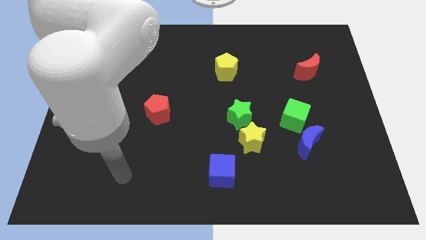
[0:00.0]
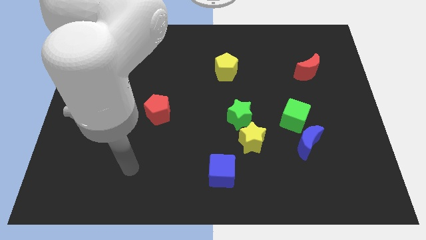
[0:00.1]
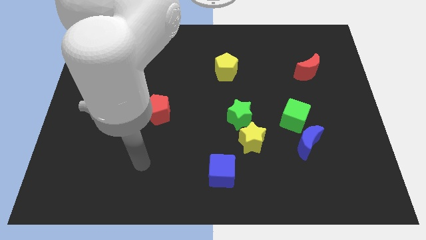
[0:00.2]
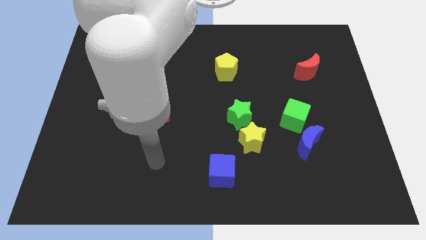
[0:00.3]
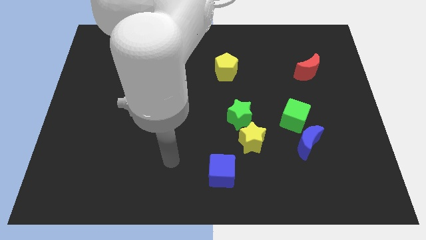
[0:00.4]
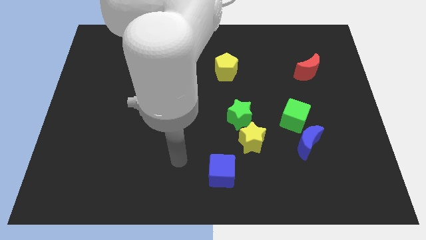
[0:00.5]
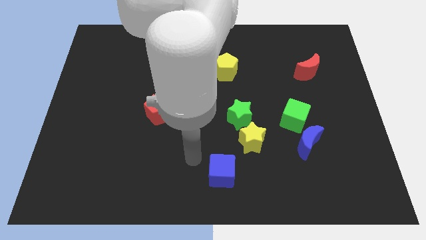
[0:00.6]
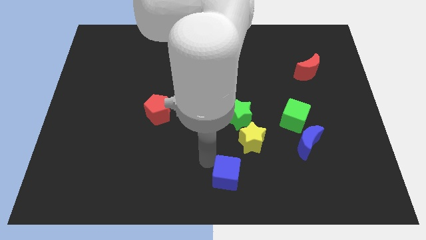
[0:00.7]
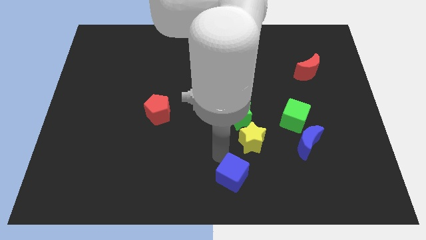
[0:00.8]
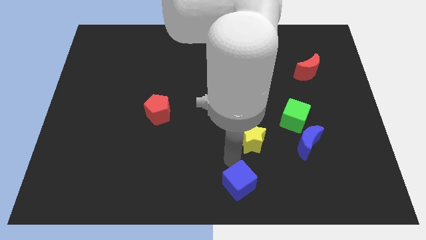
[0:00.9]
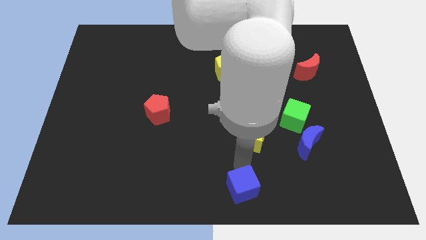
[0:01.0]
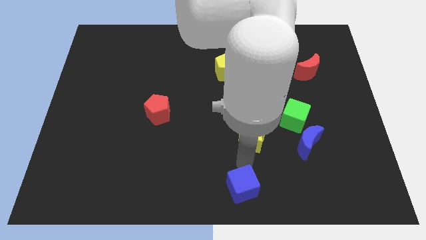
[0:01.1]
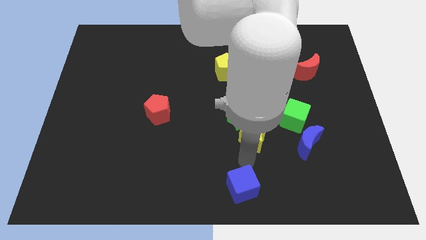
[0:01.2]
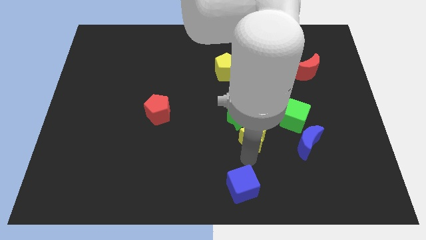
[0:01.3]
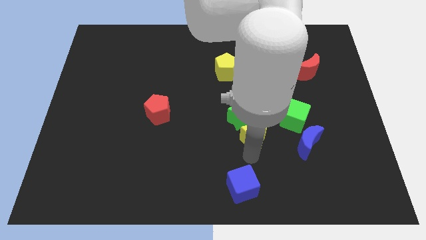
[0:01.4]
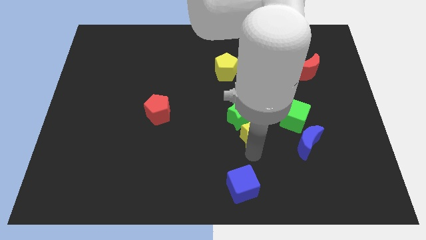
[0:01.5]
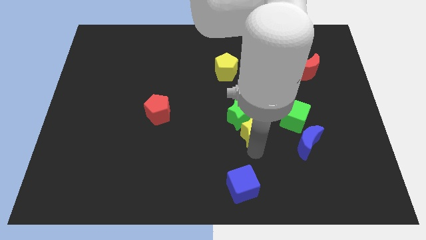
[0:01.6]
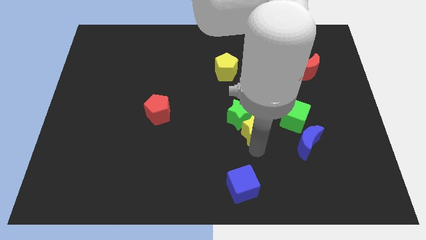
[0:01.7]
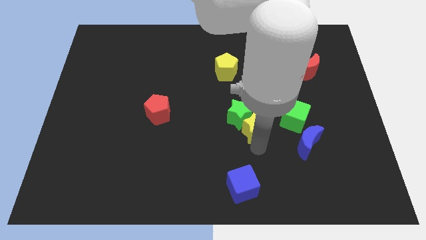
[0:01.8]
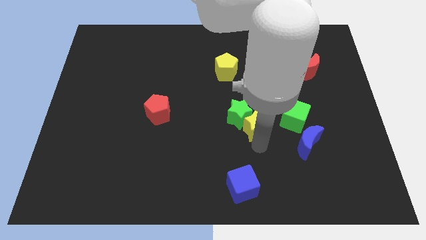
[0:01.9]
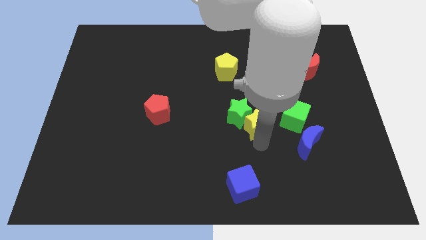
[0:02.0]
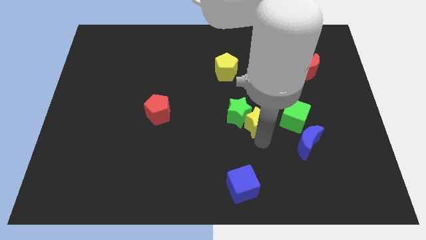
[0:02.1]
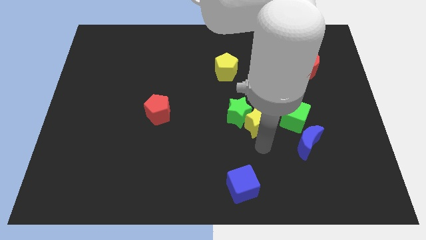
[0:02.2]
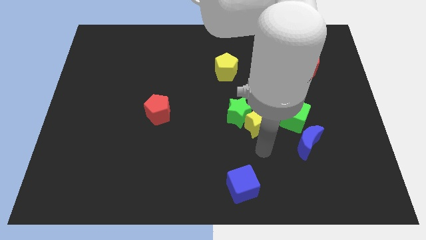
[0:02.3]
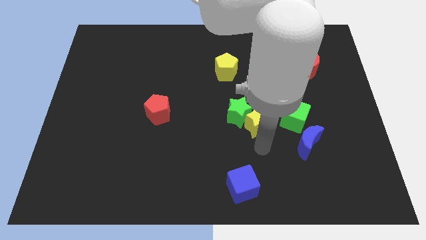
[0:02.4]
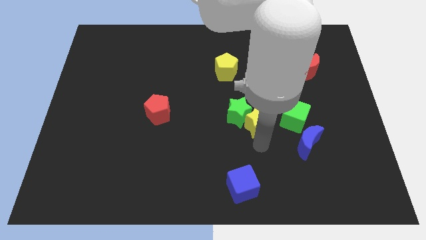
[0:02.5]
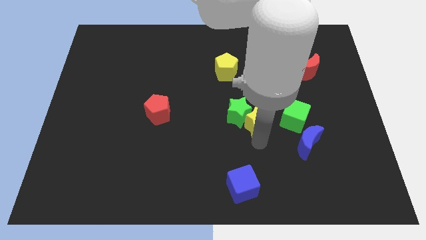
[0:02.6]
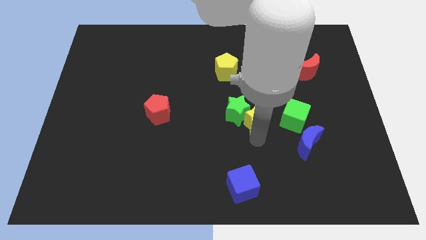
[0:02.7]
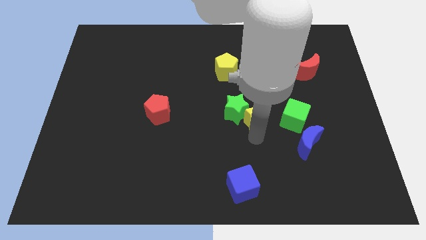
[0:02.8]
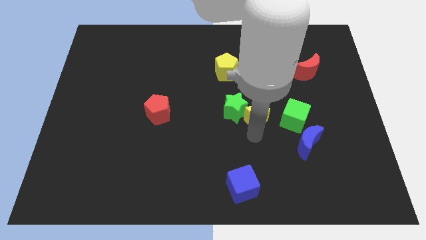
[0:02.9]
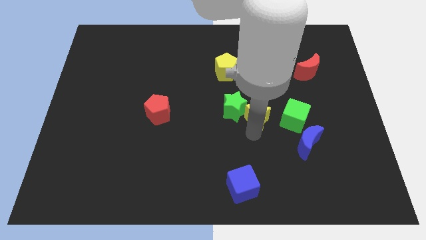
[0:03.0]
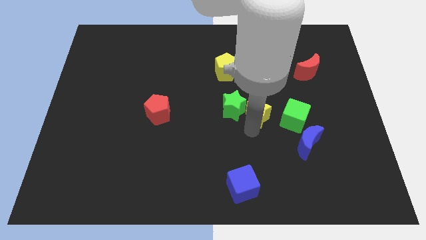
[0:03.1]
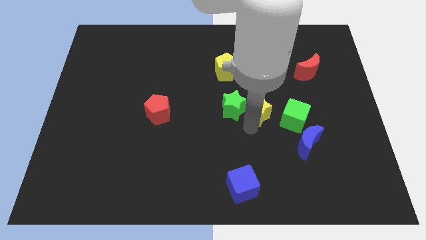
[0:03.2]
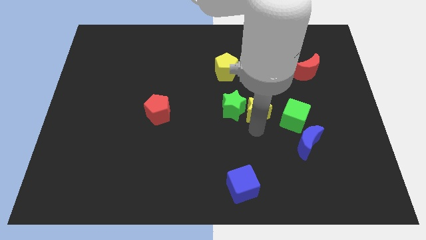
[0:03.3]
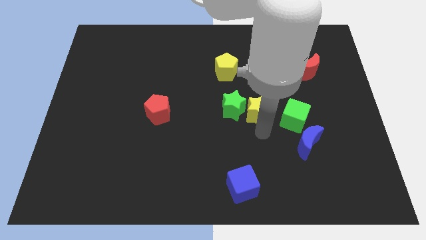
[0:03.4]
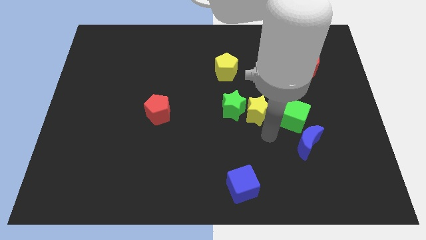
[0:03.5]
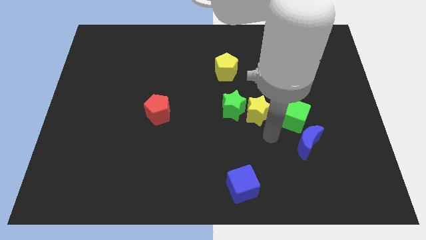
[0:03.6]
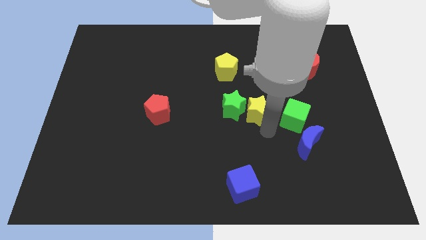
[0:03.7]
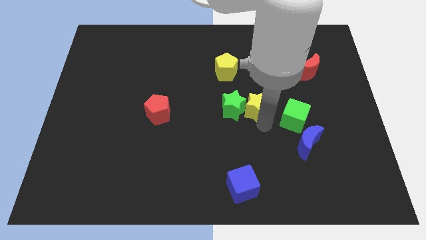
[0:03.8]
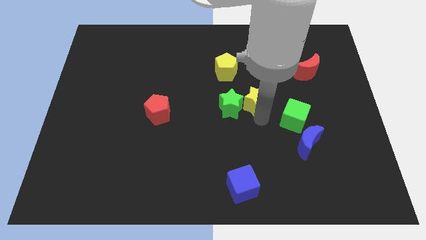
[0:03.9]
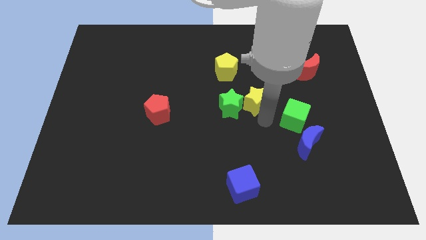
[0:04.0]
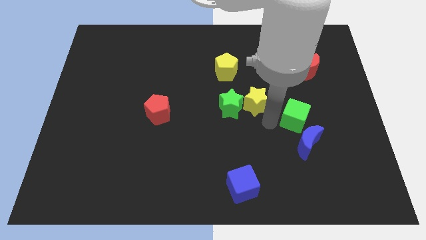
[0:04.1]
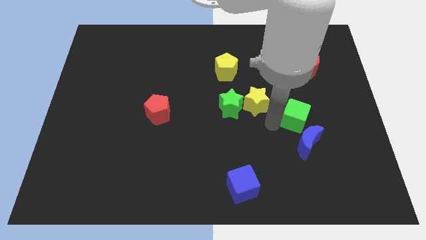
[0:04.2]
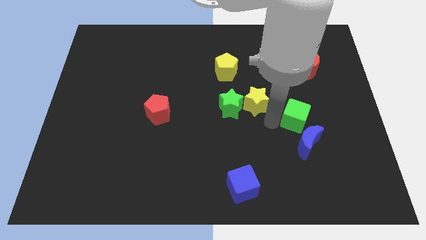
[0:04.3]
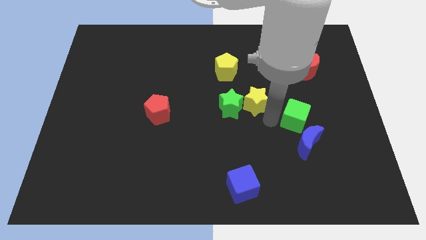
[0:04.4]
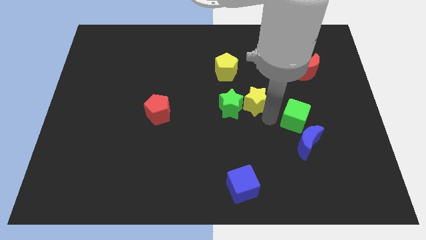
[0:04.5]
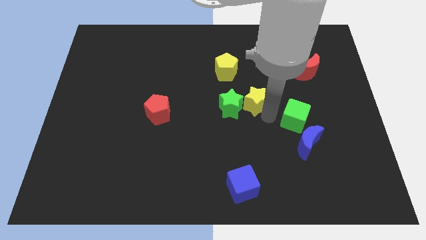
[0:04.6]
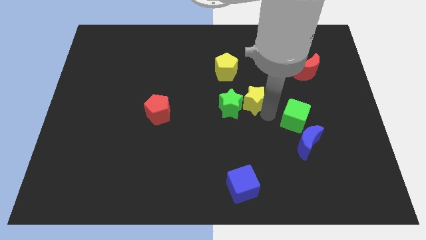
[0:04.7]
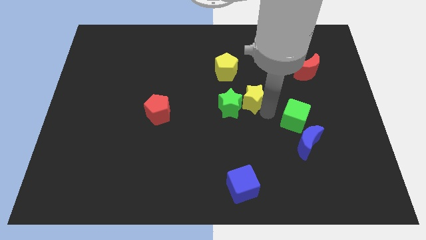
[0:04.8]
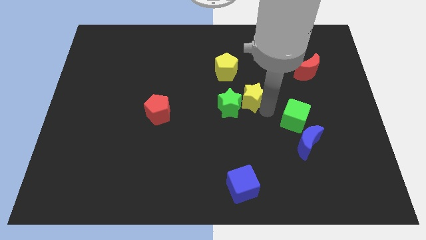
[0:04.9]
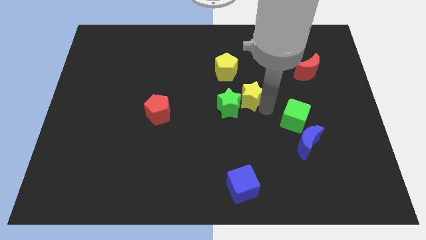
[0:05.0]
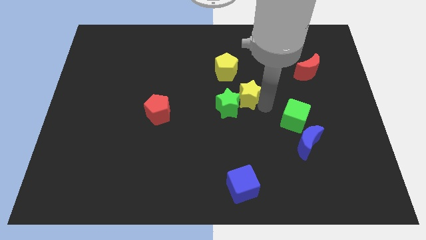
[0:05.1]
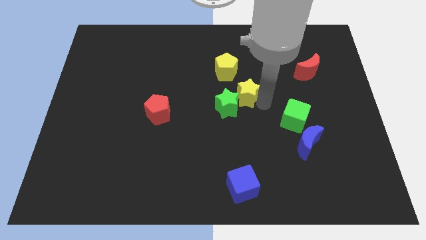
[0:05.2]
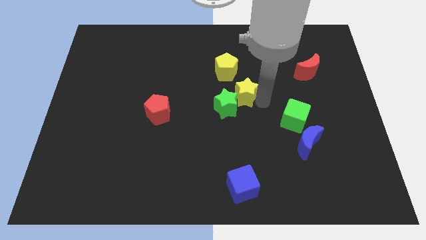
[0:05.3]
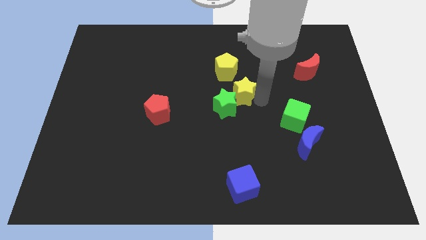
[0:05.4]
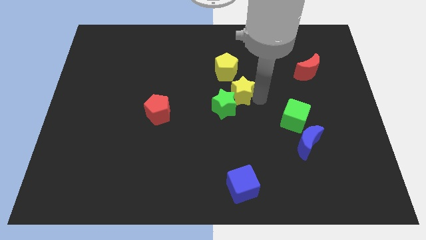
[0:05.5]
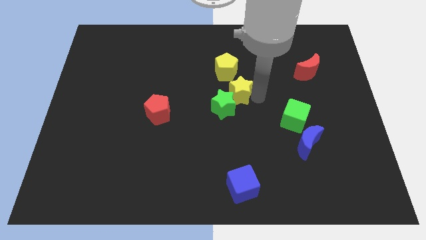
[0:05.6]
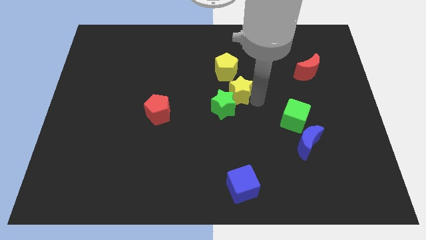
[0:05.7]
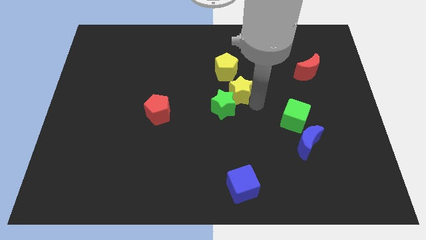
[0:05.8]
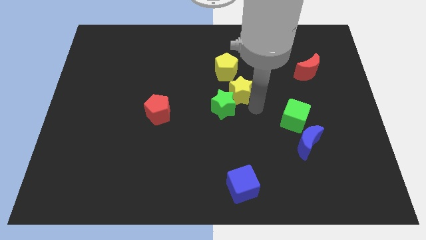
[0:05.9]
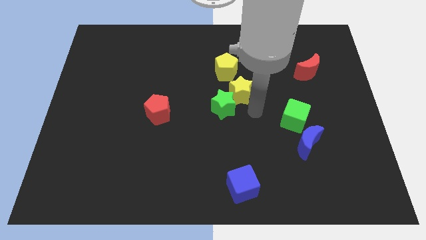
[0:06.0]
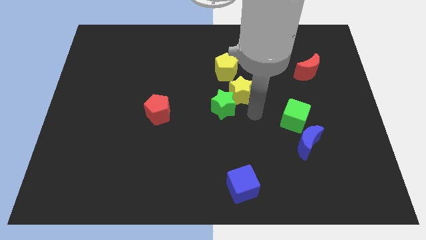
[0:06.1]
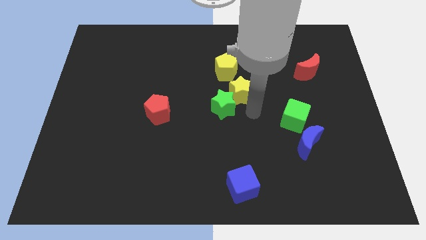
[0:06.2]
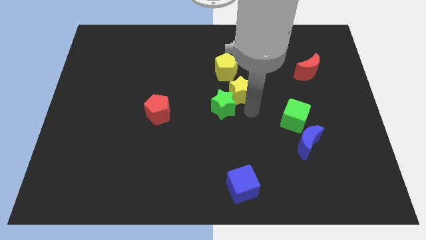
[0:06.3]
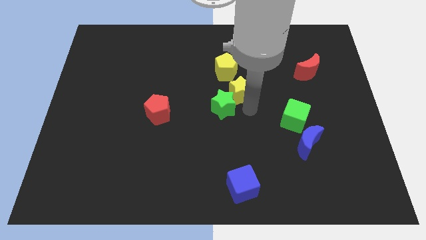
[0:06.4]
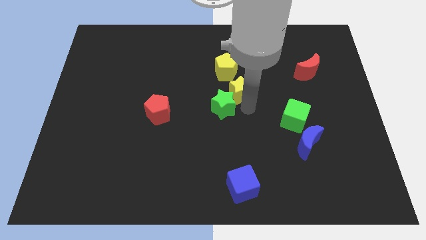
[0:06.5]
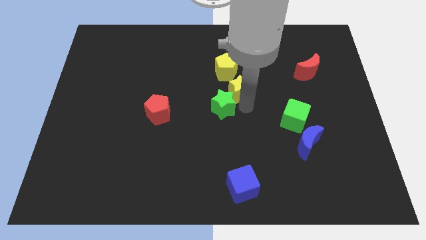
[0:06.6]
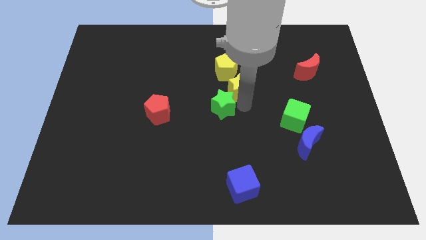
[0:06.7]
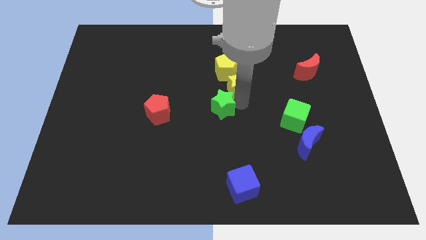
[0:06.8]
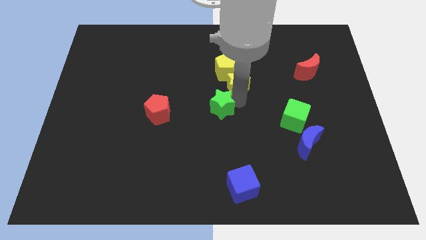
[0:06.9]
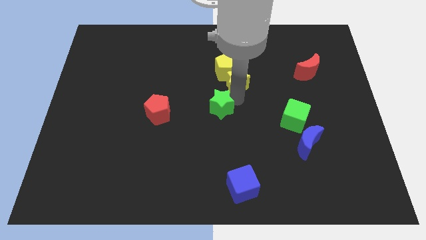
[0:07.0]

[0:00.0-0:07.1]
move the yellow star towards the yellow pentagon

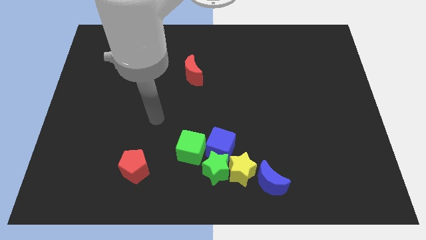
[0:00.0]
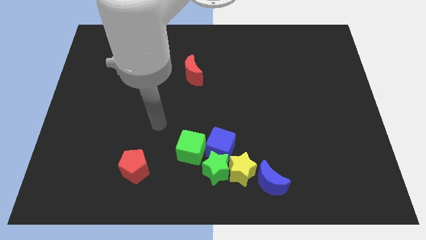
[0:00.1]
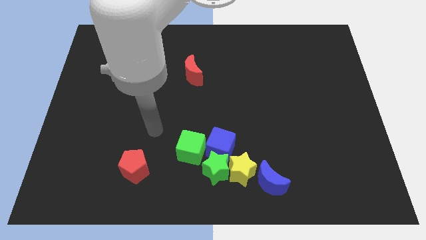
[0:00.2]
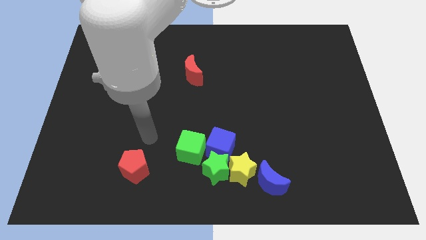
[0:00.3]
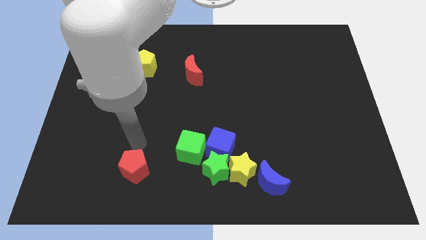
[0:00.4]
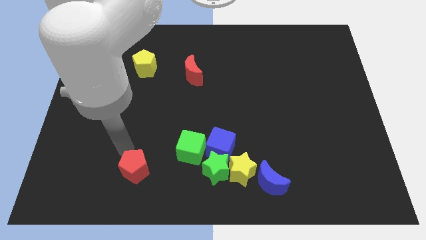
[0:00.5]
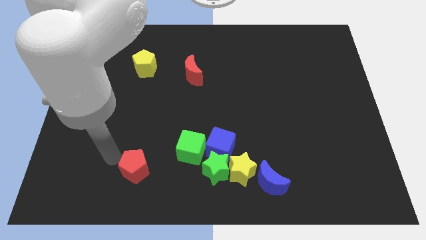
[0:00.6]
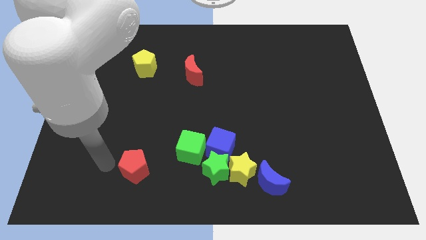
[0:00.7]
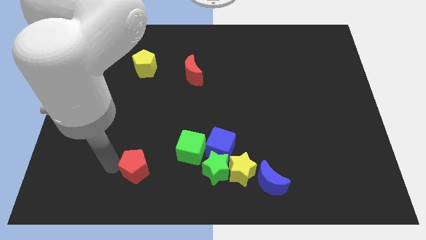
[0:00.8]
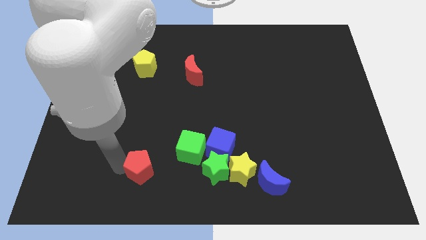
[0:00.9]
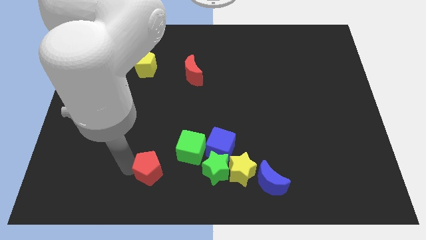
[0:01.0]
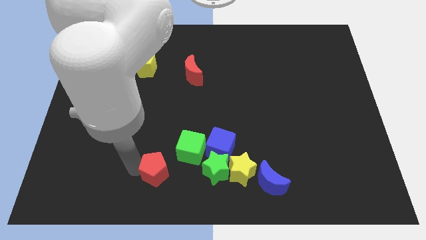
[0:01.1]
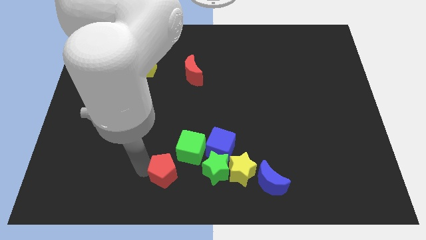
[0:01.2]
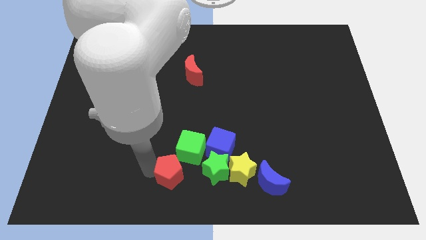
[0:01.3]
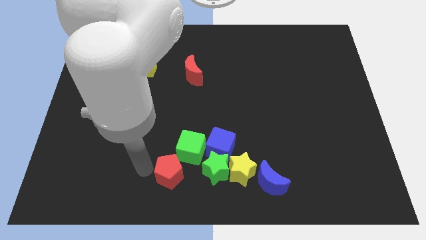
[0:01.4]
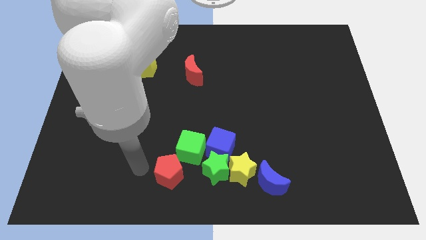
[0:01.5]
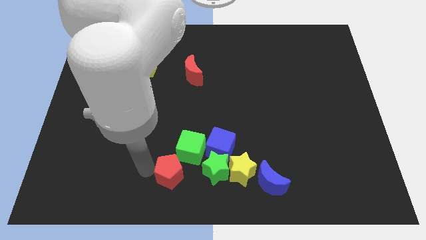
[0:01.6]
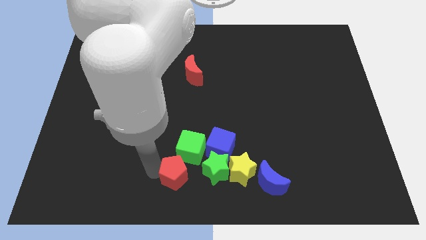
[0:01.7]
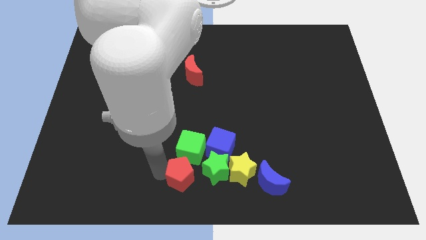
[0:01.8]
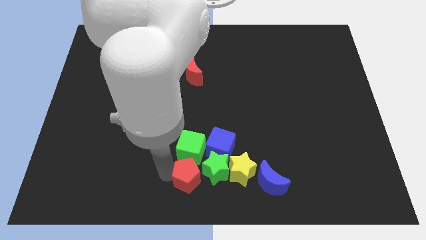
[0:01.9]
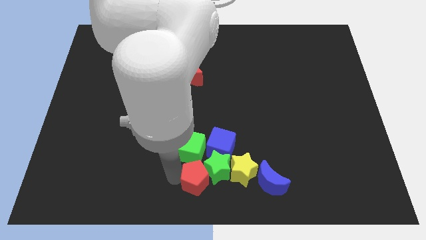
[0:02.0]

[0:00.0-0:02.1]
put the red pentagon towards the green star
